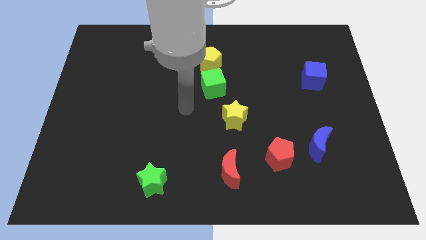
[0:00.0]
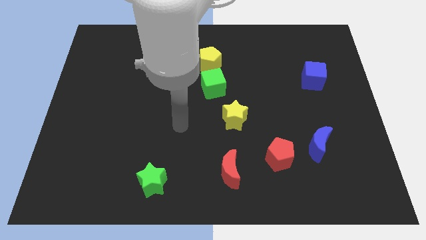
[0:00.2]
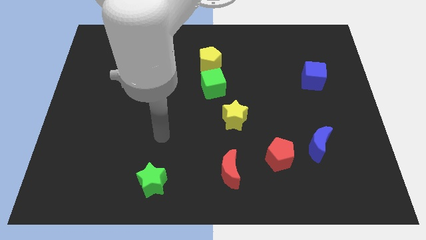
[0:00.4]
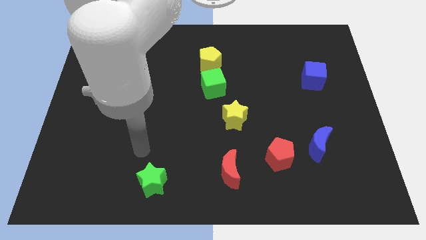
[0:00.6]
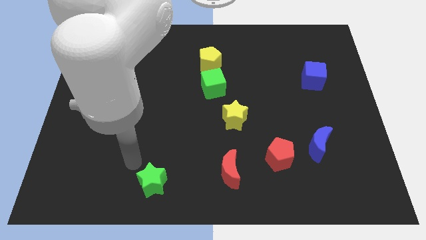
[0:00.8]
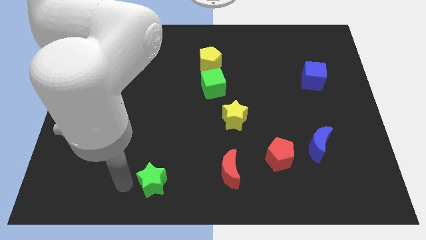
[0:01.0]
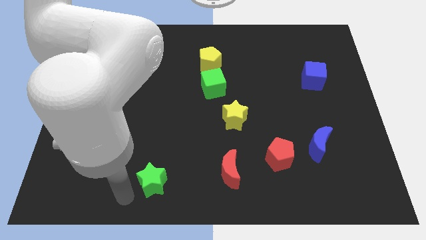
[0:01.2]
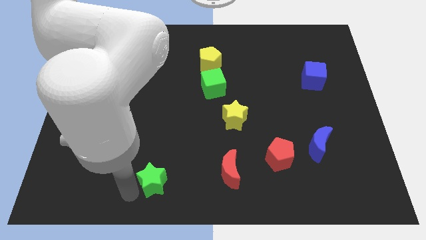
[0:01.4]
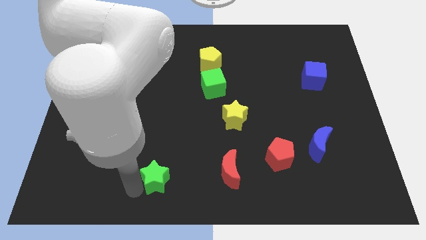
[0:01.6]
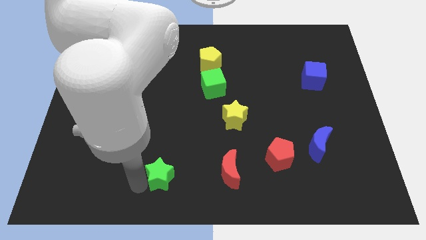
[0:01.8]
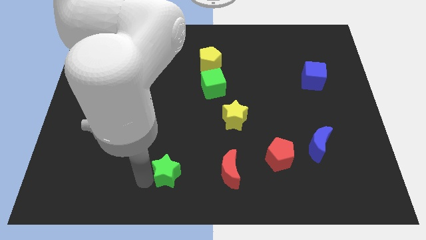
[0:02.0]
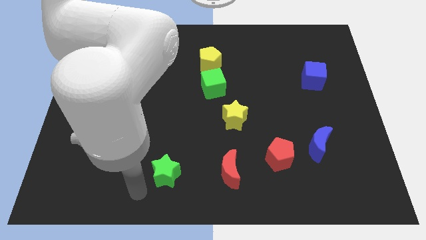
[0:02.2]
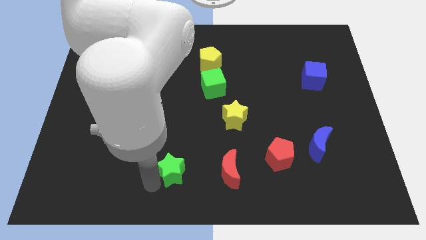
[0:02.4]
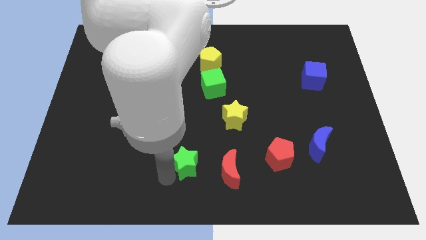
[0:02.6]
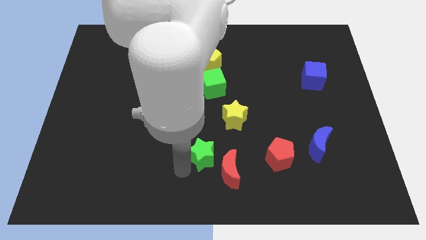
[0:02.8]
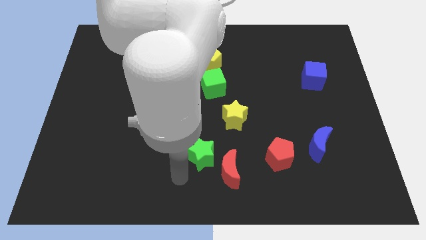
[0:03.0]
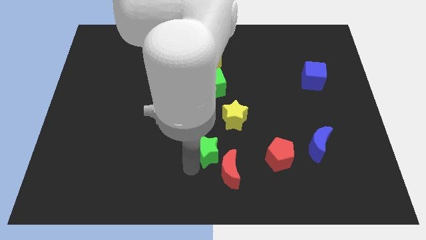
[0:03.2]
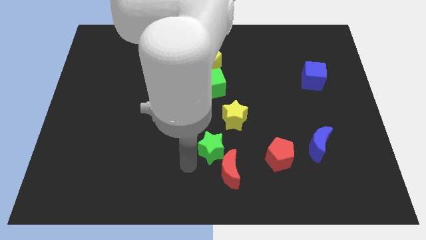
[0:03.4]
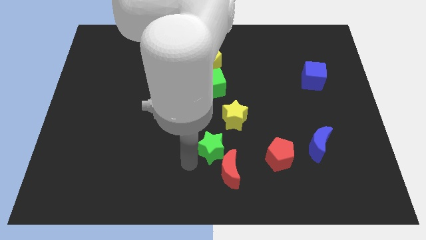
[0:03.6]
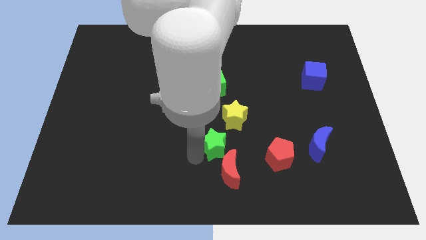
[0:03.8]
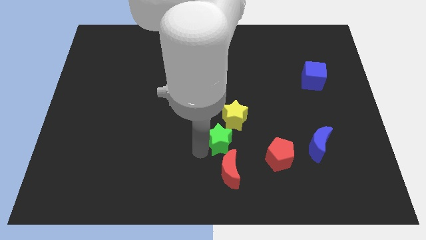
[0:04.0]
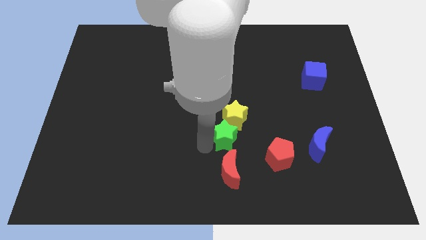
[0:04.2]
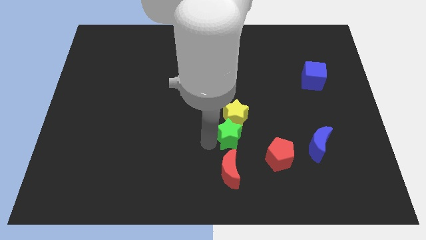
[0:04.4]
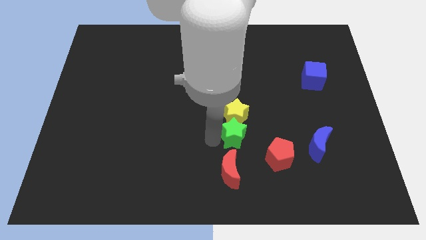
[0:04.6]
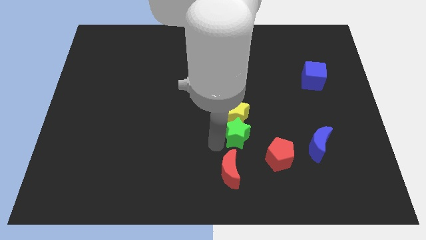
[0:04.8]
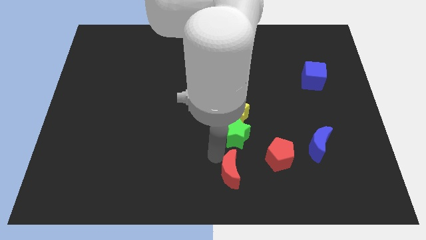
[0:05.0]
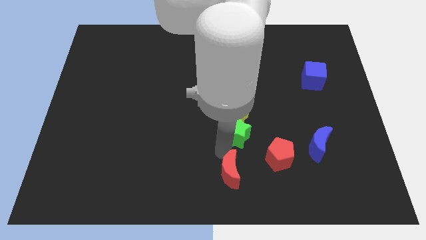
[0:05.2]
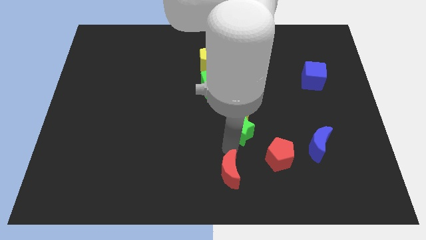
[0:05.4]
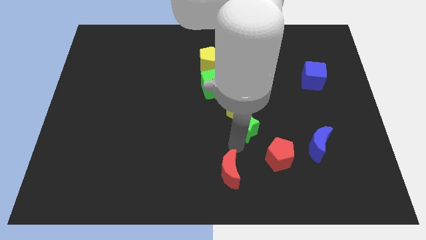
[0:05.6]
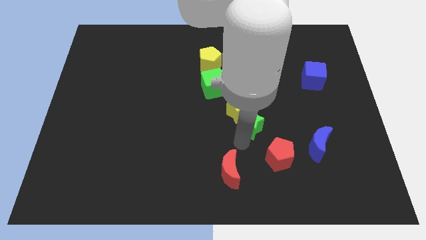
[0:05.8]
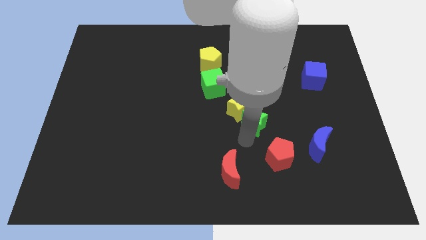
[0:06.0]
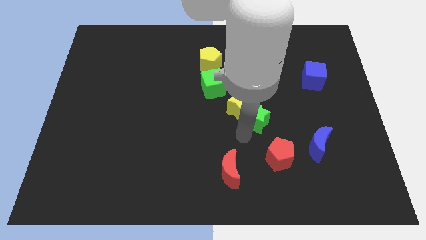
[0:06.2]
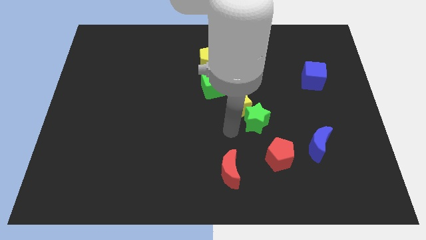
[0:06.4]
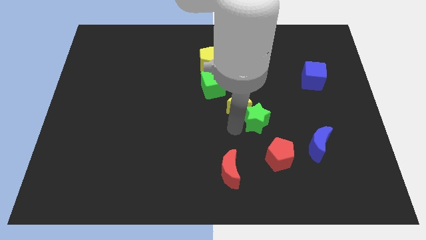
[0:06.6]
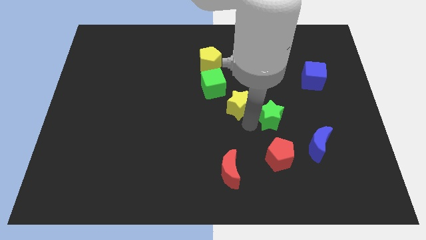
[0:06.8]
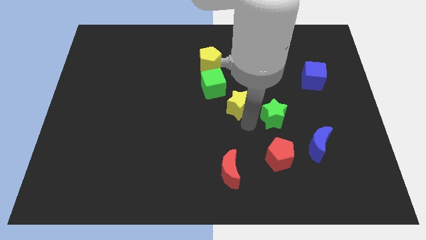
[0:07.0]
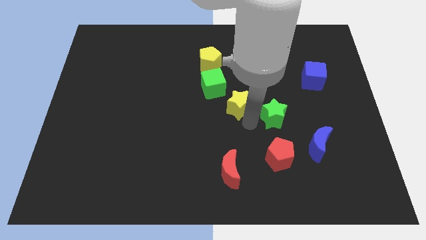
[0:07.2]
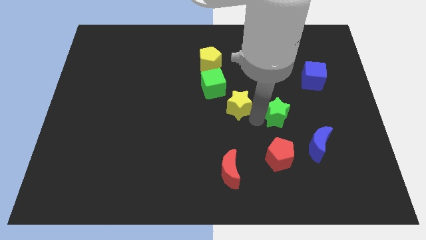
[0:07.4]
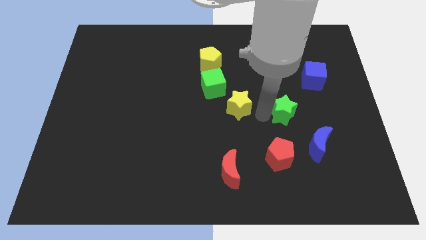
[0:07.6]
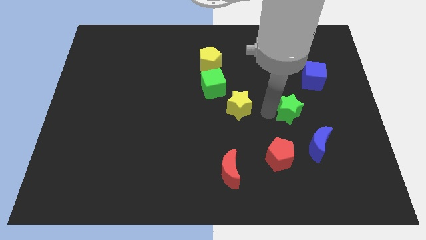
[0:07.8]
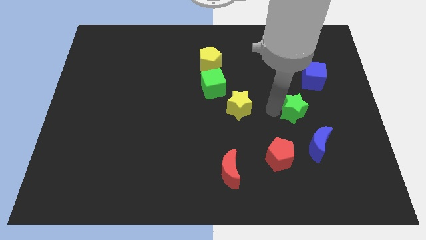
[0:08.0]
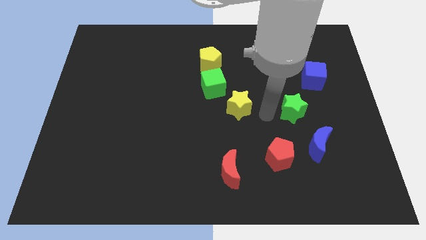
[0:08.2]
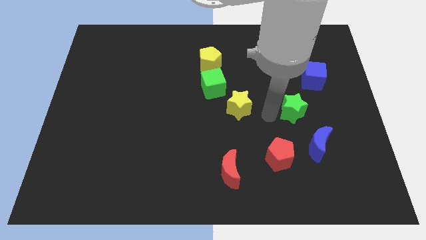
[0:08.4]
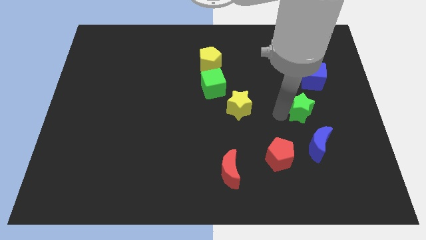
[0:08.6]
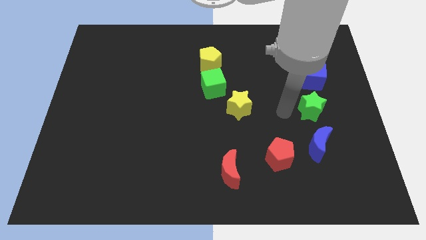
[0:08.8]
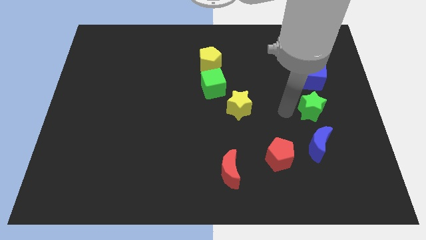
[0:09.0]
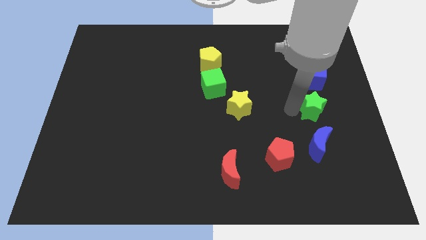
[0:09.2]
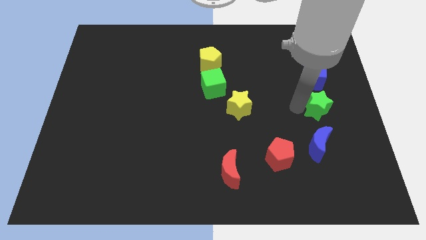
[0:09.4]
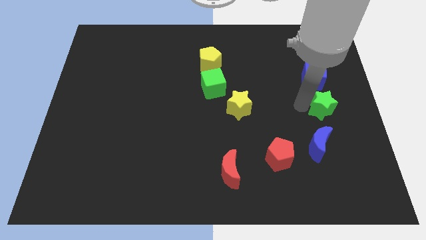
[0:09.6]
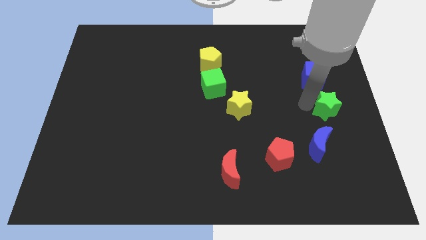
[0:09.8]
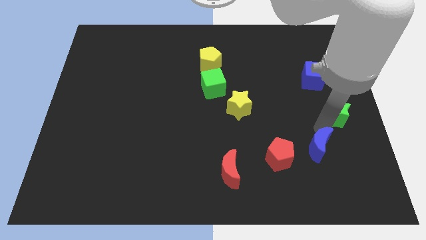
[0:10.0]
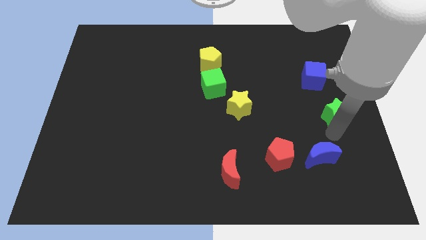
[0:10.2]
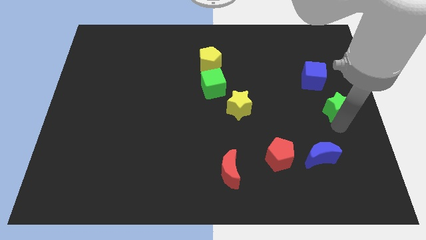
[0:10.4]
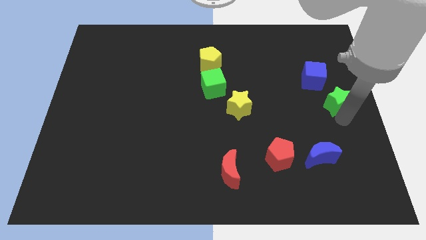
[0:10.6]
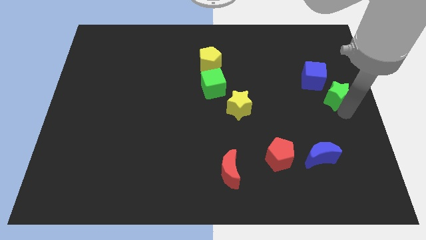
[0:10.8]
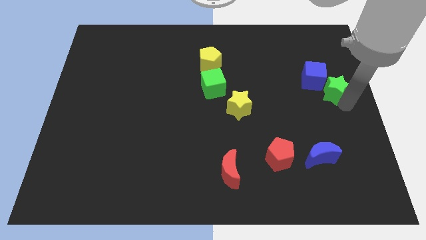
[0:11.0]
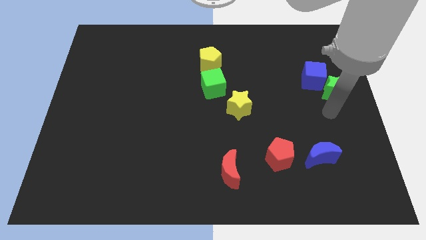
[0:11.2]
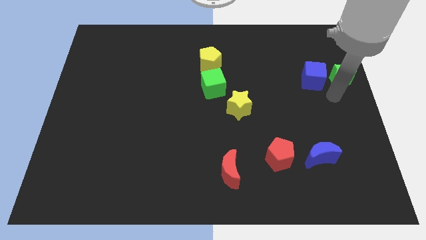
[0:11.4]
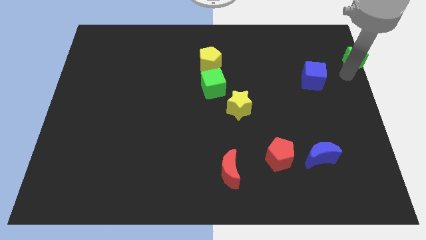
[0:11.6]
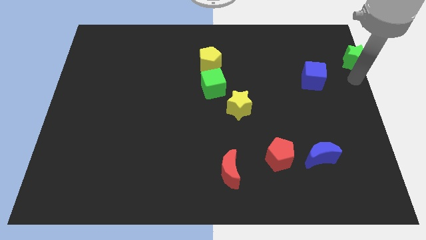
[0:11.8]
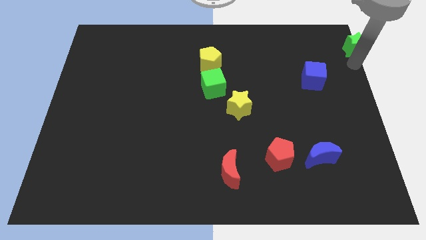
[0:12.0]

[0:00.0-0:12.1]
move the green star to the top right of the board

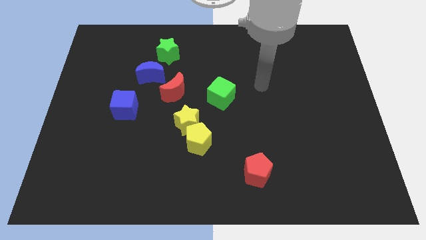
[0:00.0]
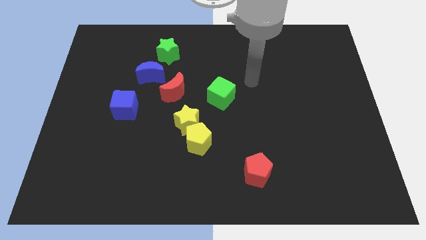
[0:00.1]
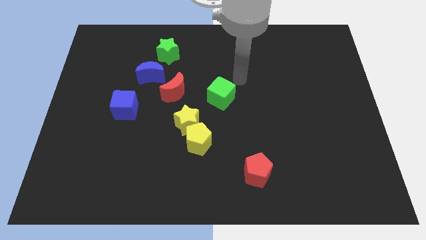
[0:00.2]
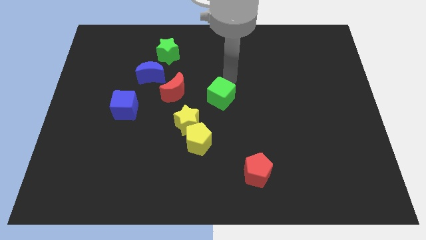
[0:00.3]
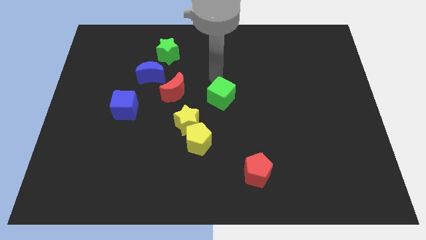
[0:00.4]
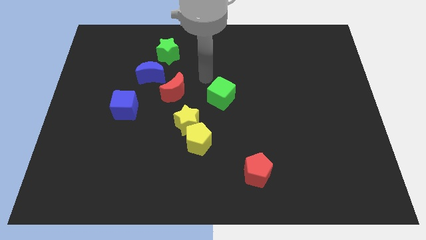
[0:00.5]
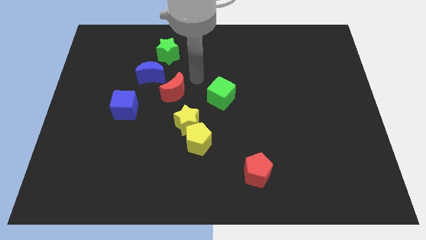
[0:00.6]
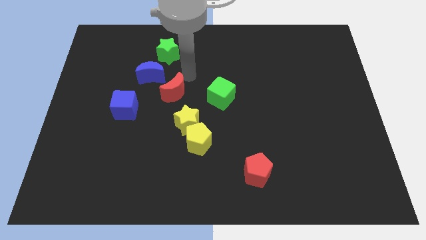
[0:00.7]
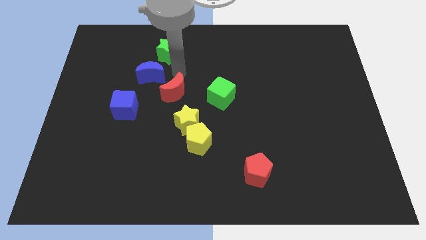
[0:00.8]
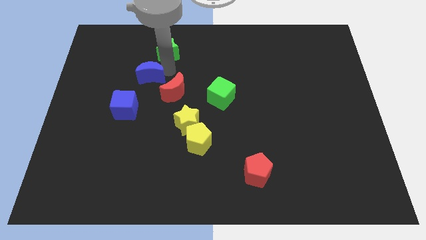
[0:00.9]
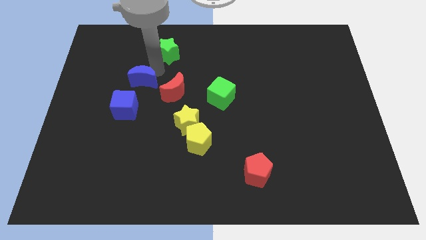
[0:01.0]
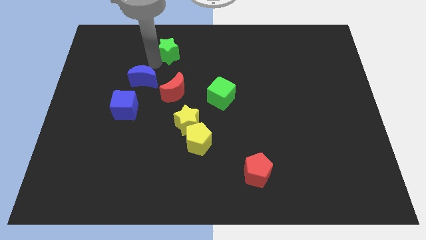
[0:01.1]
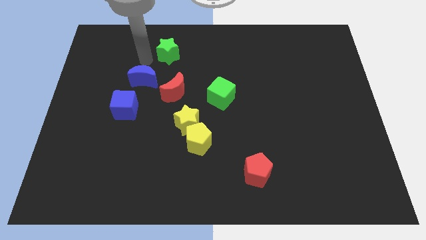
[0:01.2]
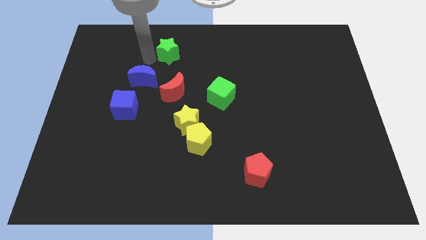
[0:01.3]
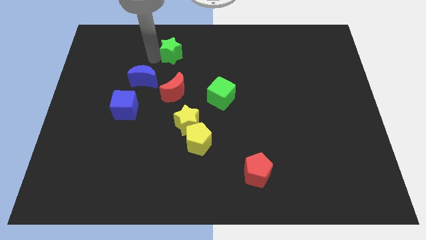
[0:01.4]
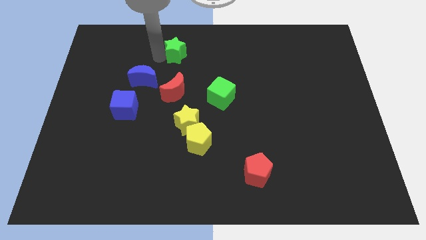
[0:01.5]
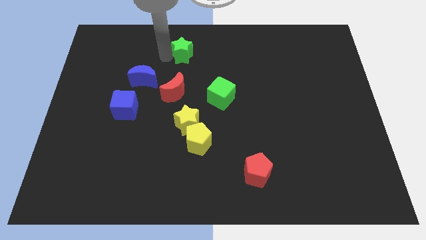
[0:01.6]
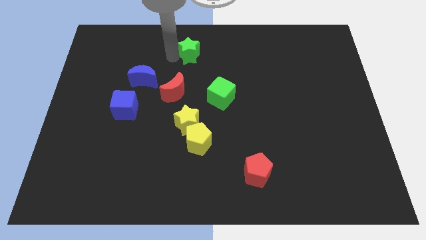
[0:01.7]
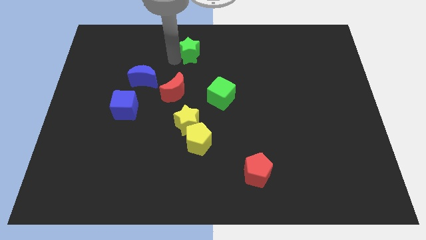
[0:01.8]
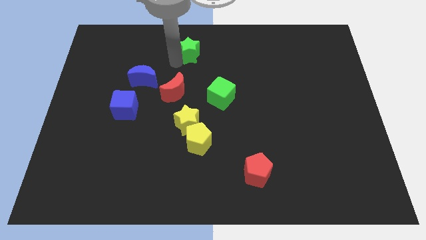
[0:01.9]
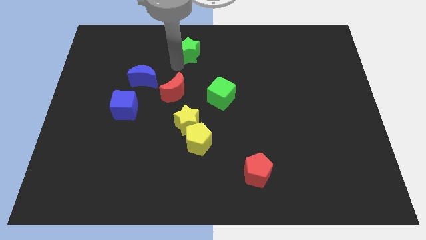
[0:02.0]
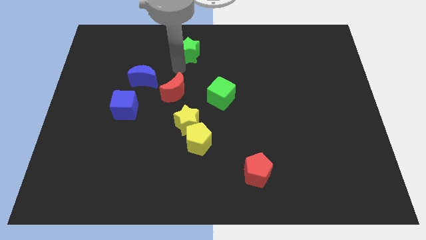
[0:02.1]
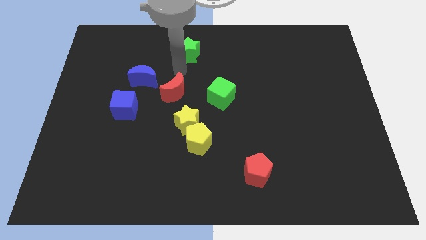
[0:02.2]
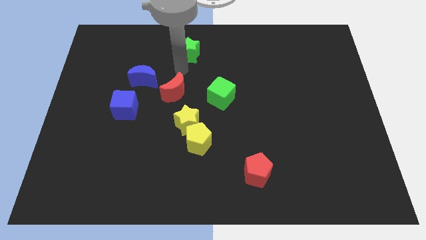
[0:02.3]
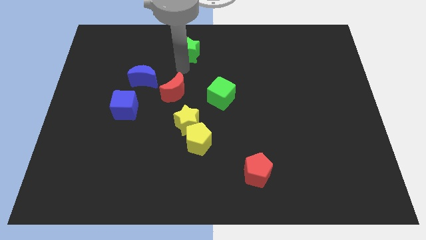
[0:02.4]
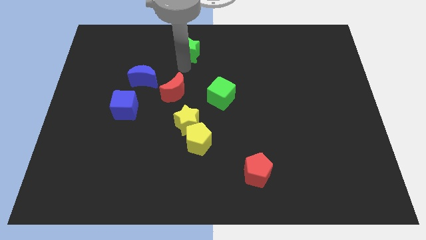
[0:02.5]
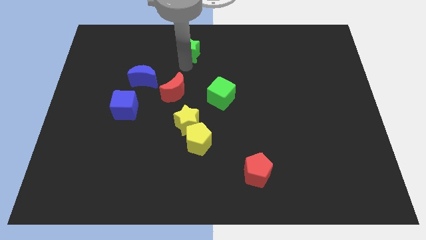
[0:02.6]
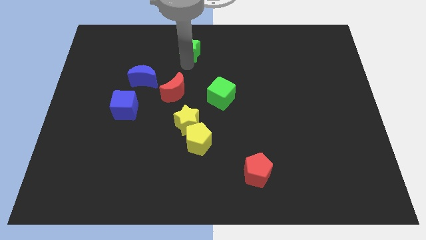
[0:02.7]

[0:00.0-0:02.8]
put the green star to the top side
